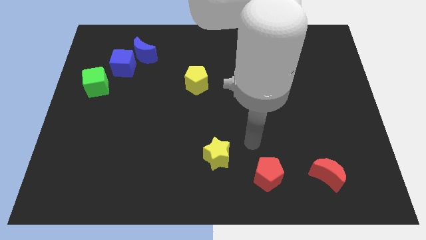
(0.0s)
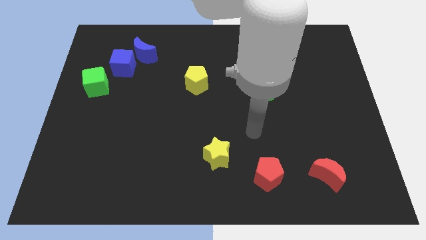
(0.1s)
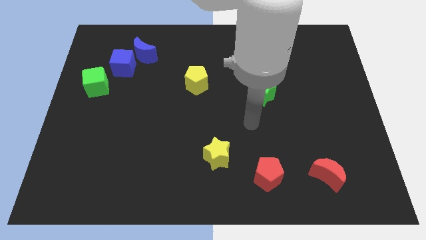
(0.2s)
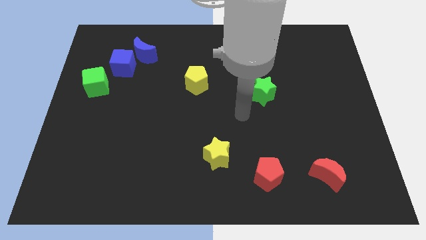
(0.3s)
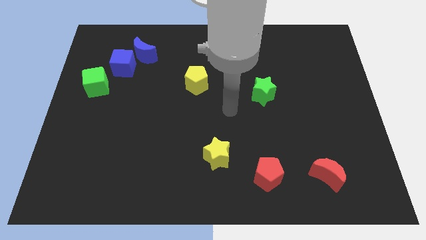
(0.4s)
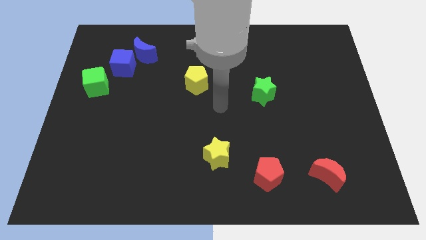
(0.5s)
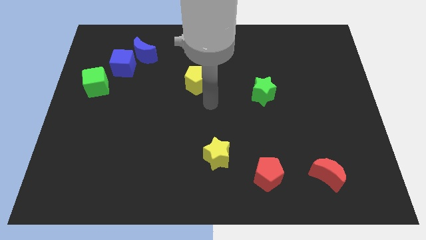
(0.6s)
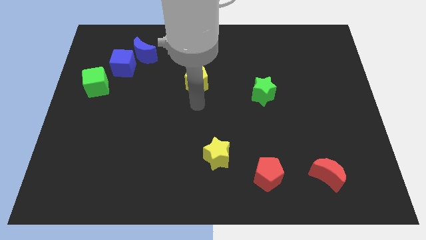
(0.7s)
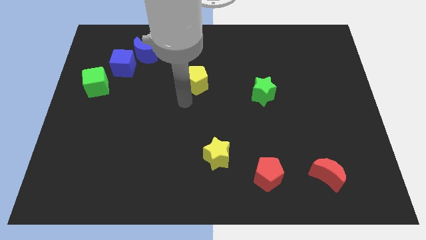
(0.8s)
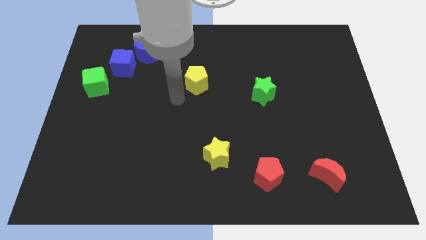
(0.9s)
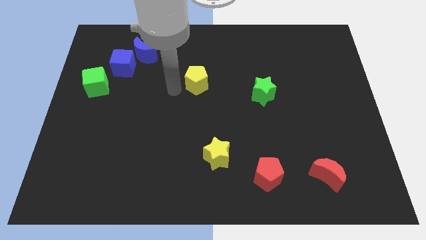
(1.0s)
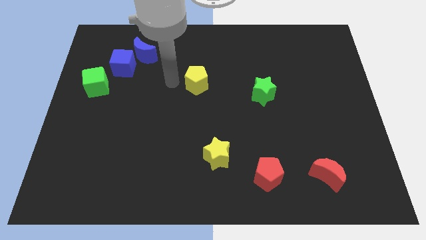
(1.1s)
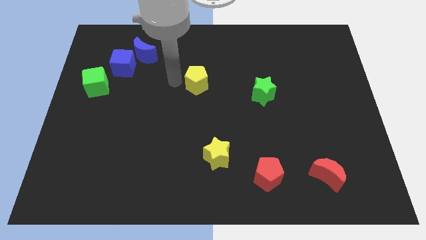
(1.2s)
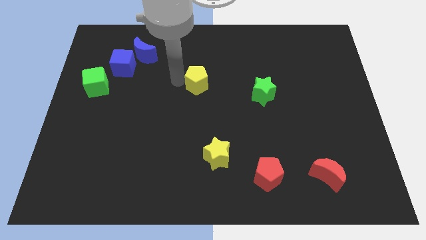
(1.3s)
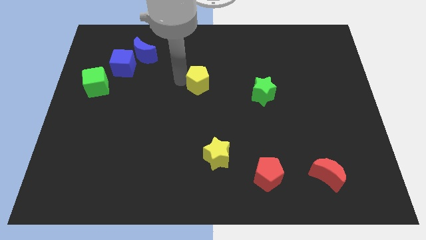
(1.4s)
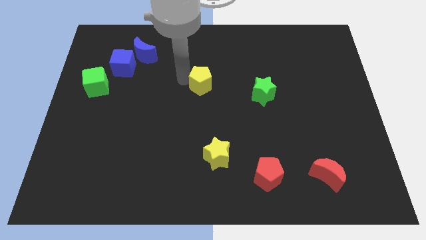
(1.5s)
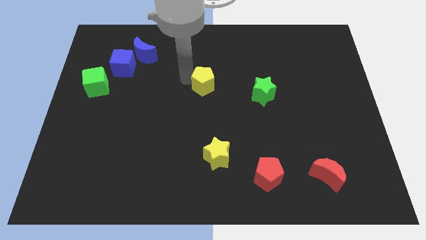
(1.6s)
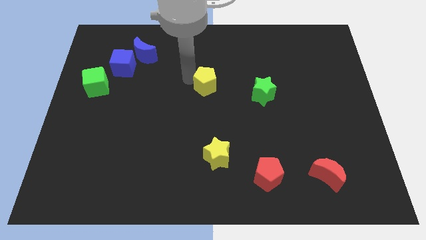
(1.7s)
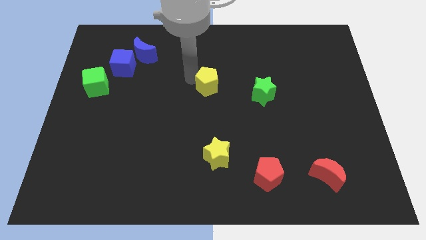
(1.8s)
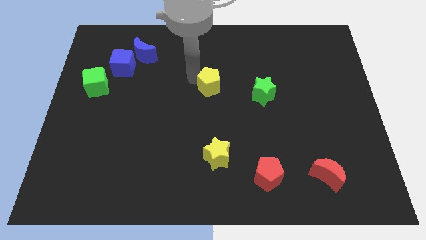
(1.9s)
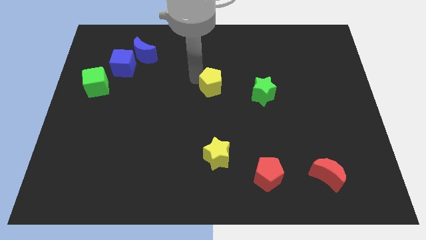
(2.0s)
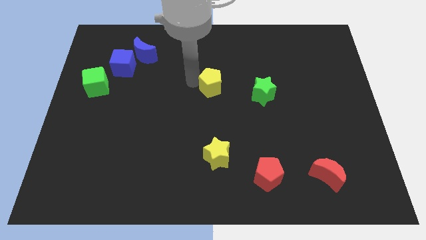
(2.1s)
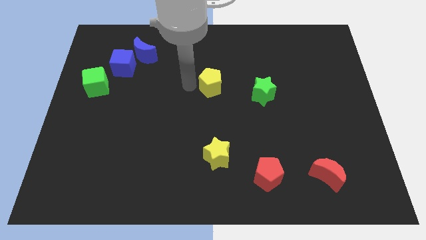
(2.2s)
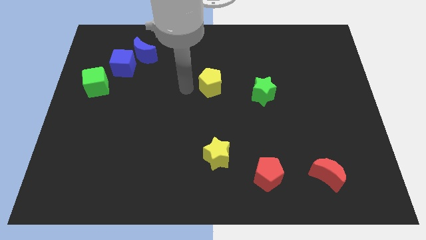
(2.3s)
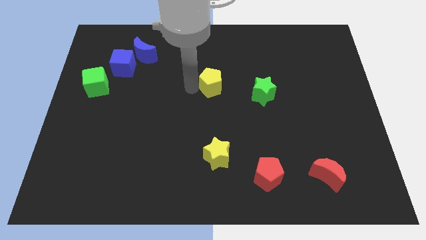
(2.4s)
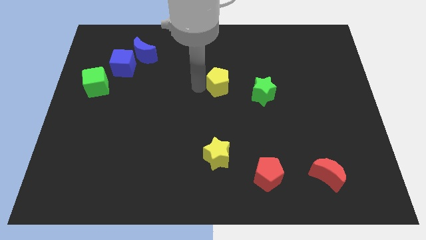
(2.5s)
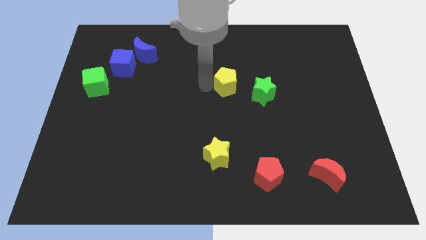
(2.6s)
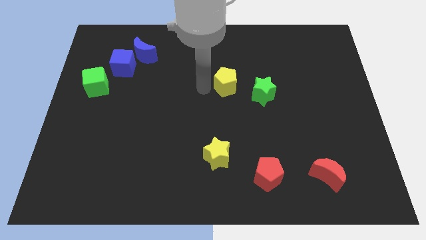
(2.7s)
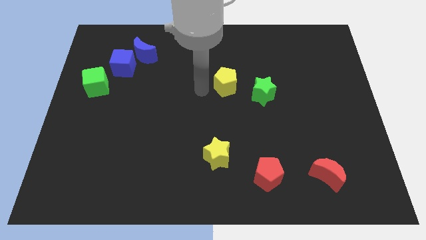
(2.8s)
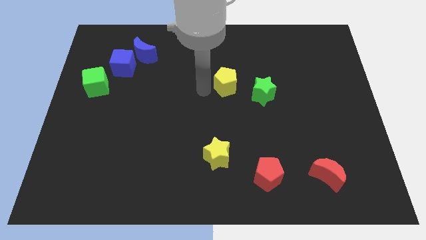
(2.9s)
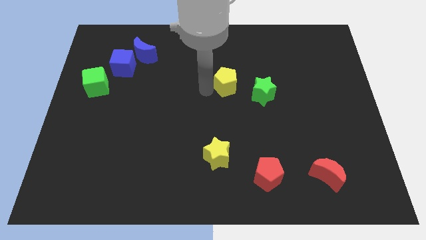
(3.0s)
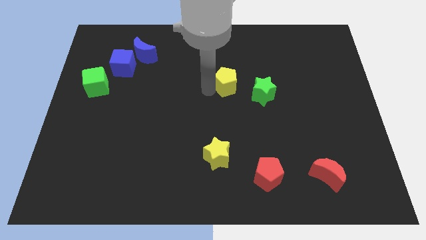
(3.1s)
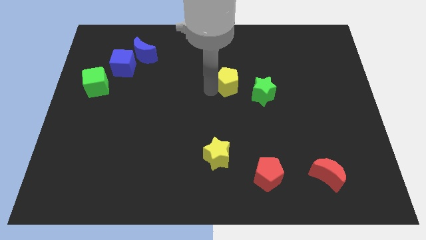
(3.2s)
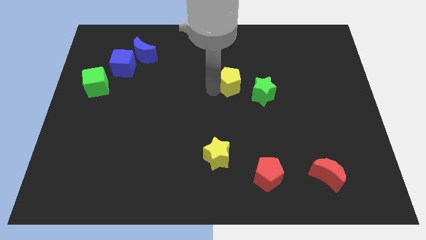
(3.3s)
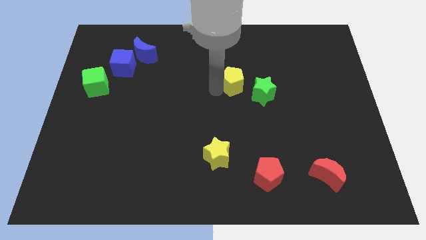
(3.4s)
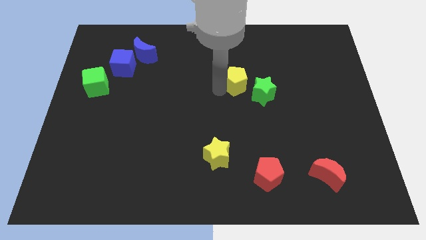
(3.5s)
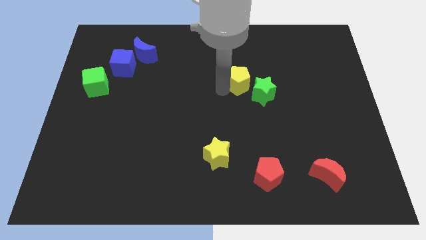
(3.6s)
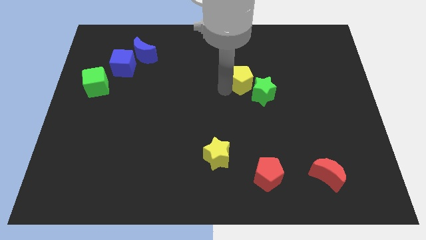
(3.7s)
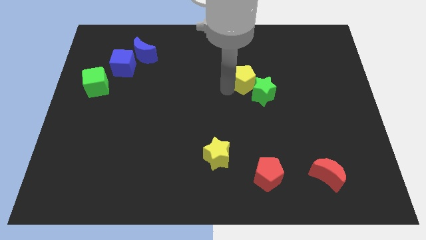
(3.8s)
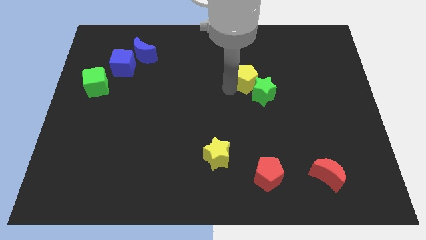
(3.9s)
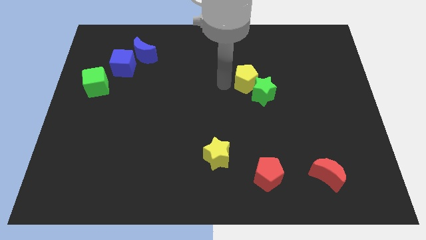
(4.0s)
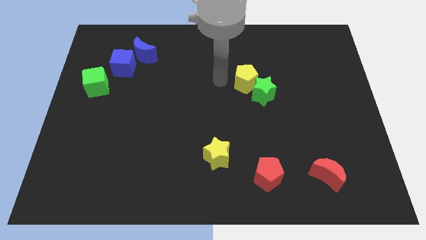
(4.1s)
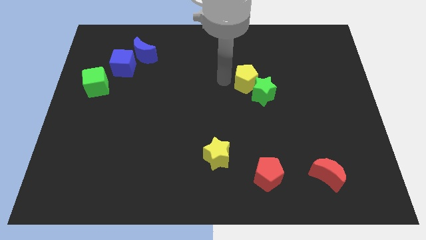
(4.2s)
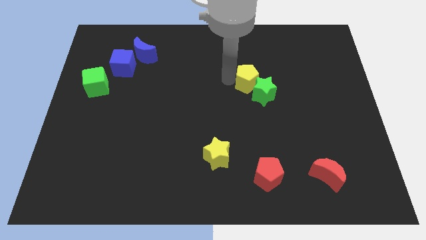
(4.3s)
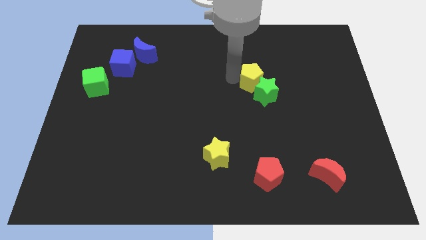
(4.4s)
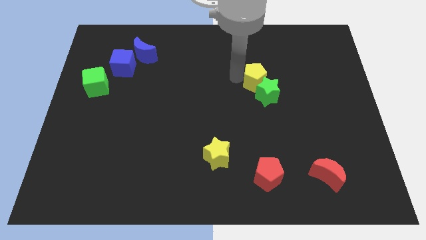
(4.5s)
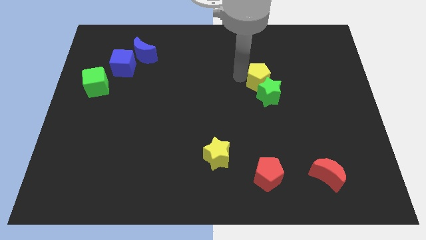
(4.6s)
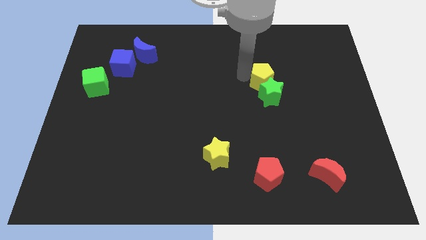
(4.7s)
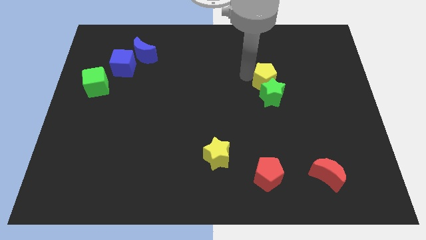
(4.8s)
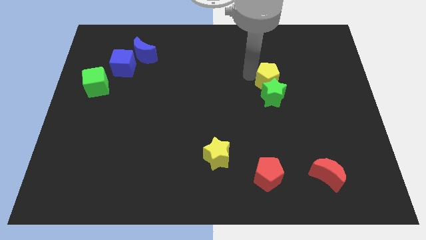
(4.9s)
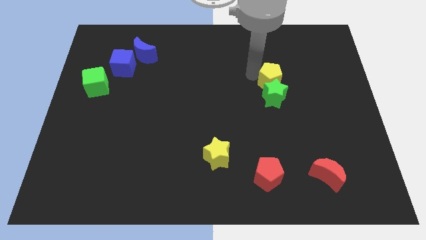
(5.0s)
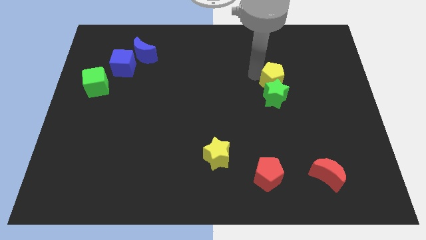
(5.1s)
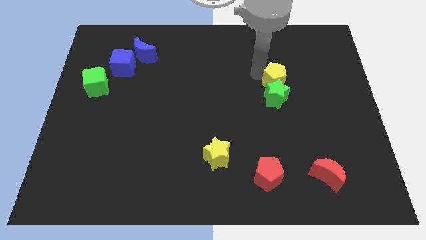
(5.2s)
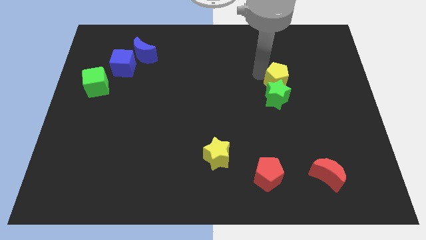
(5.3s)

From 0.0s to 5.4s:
slide the yellow pentagon right

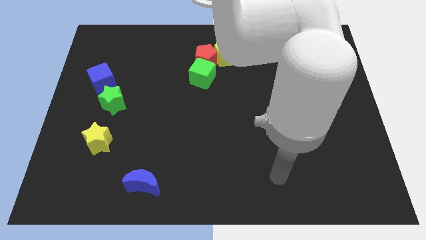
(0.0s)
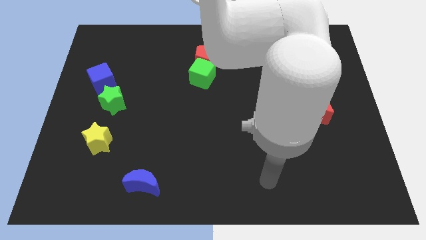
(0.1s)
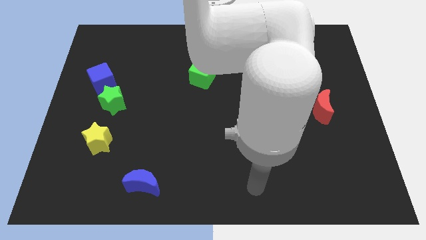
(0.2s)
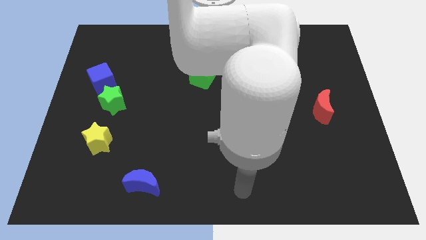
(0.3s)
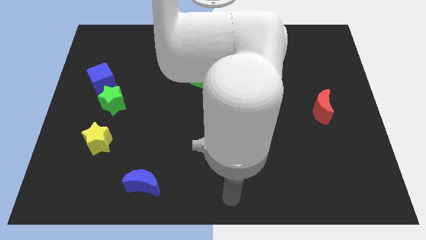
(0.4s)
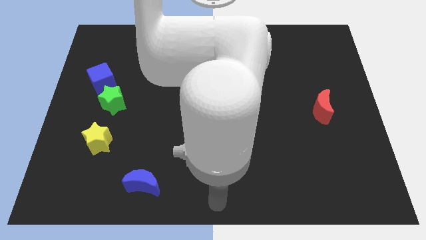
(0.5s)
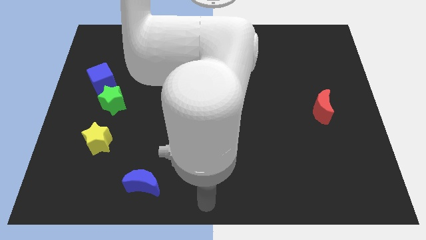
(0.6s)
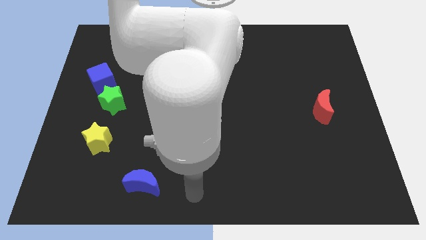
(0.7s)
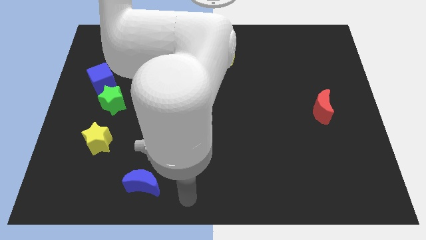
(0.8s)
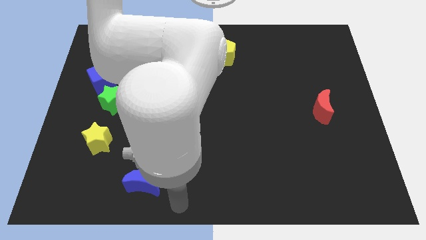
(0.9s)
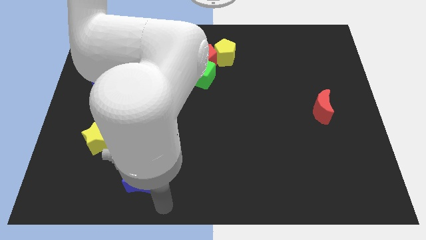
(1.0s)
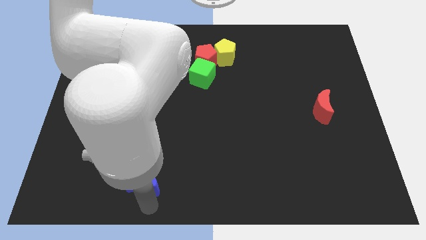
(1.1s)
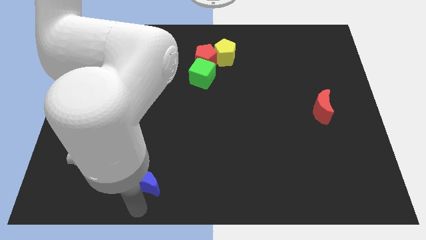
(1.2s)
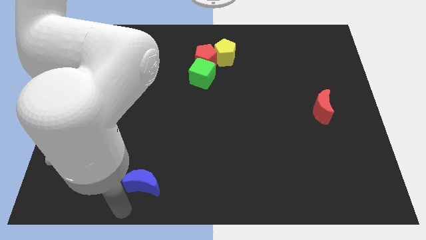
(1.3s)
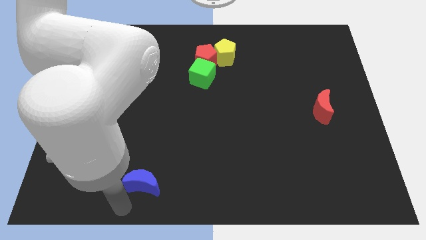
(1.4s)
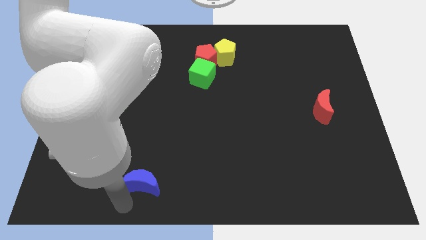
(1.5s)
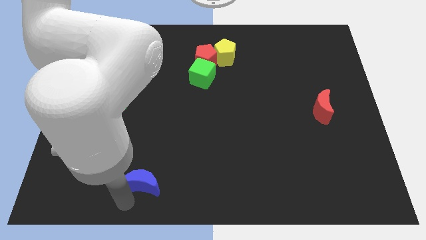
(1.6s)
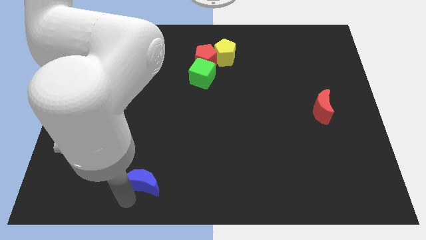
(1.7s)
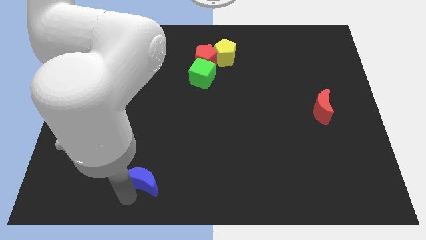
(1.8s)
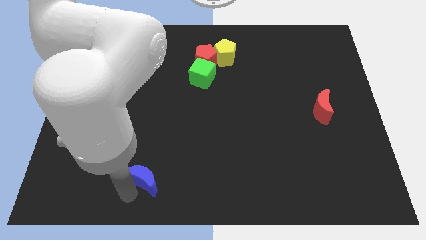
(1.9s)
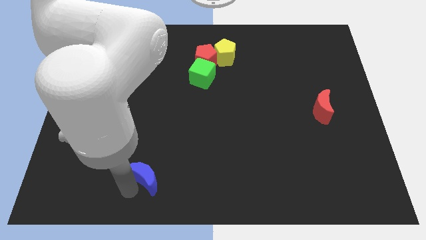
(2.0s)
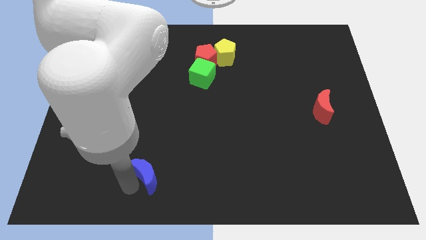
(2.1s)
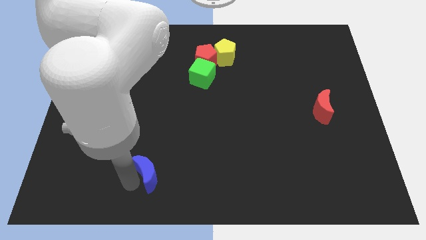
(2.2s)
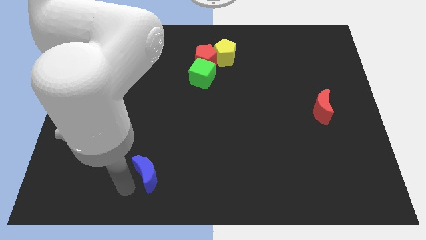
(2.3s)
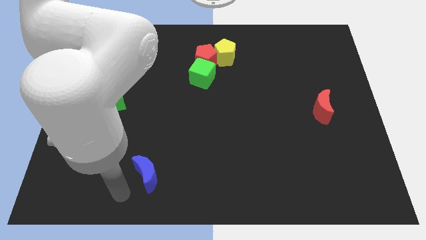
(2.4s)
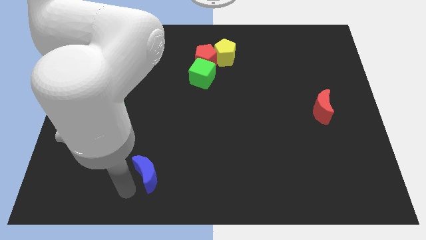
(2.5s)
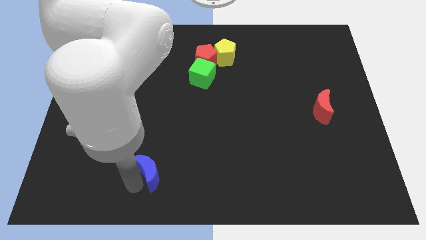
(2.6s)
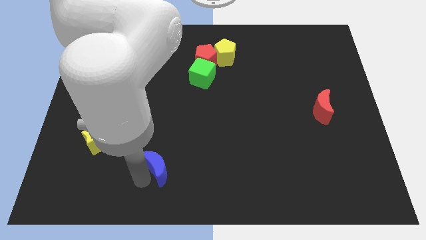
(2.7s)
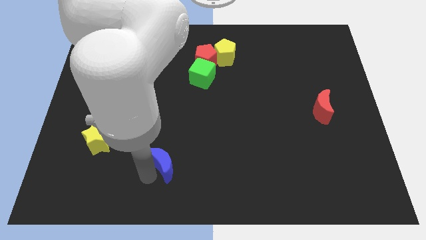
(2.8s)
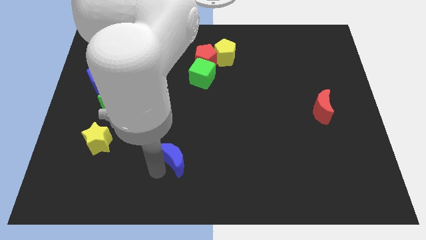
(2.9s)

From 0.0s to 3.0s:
move the blue moon slightly up and right
